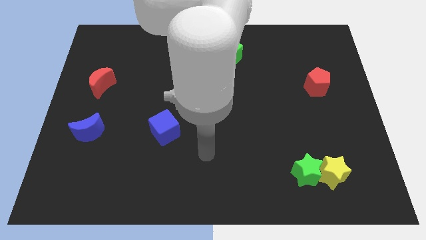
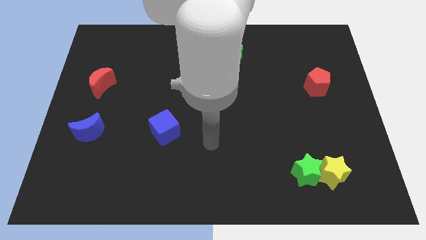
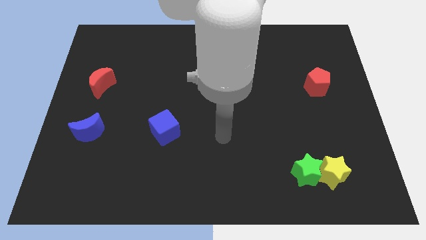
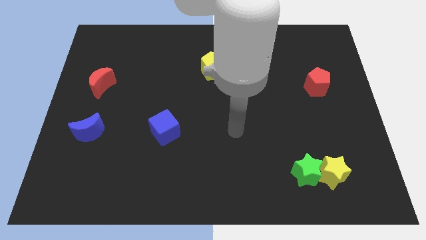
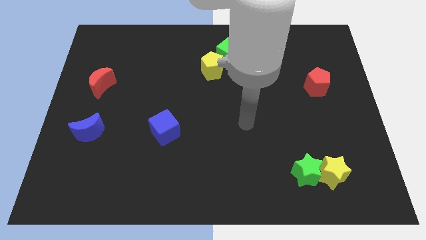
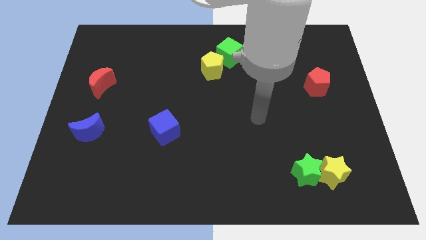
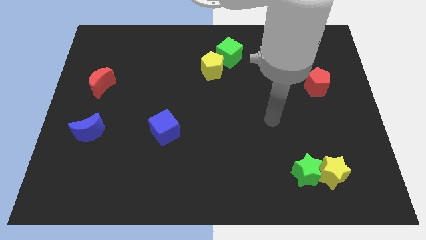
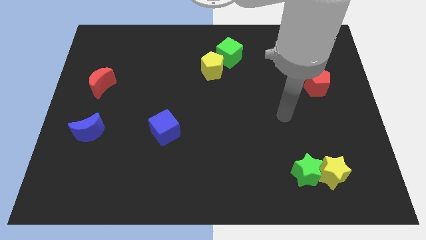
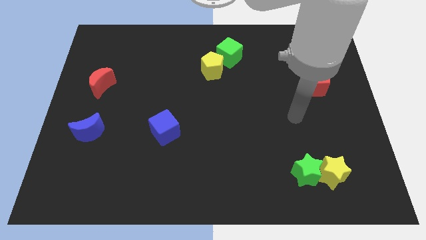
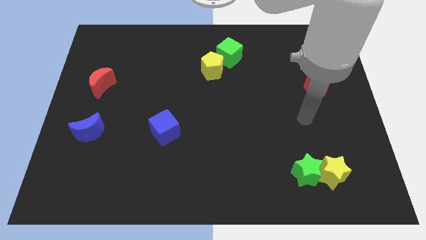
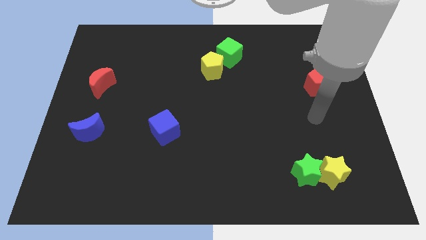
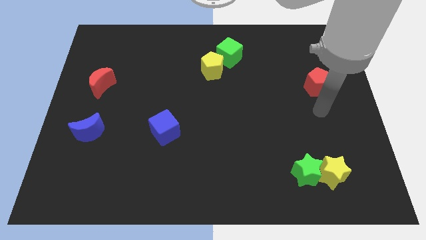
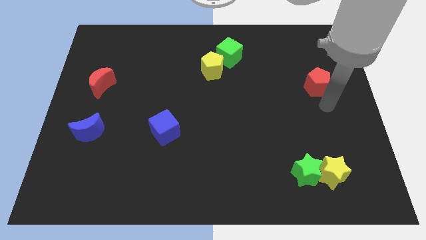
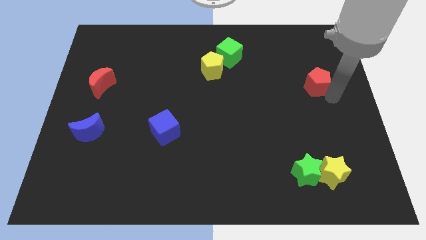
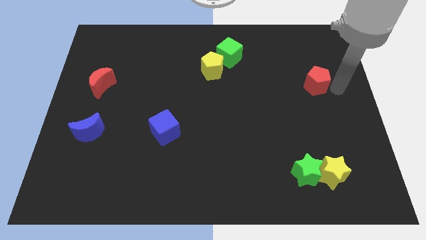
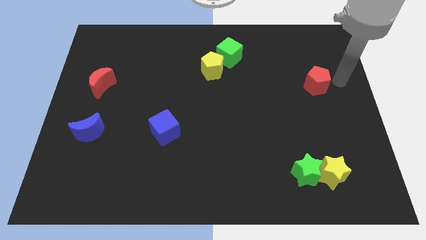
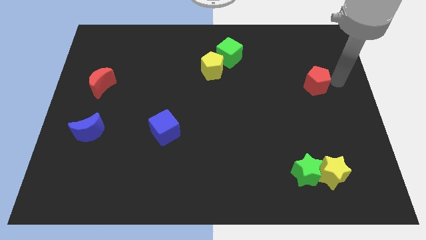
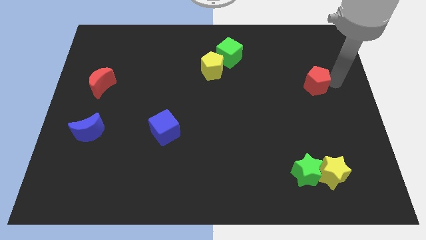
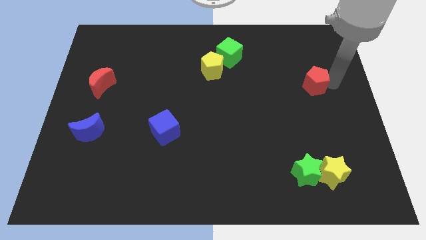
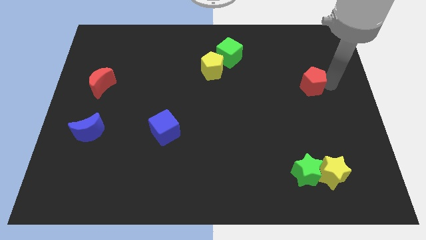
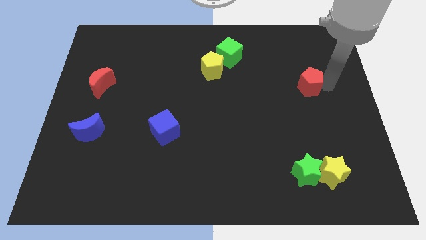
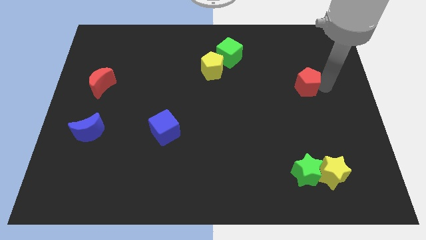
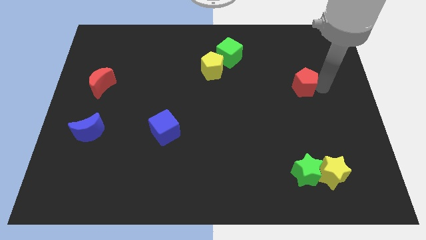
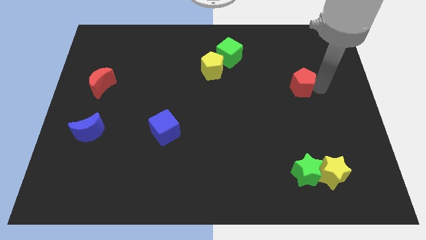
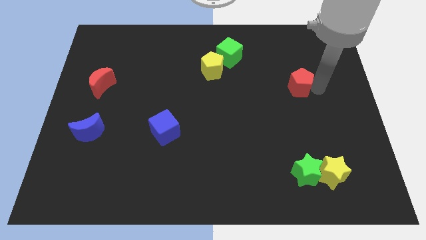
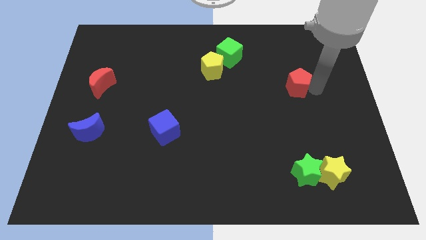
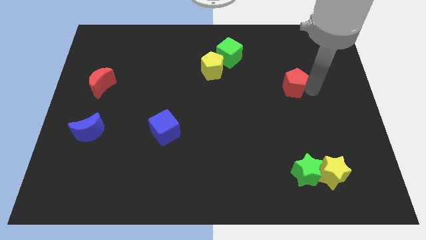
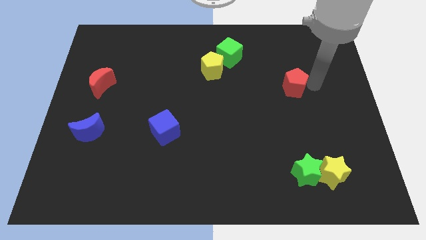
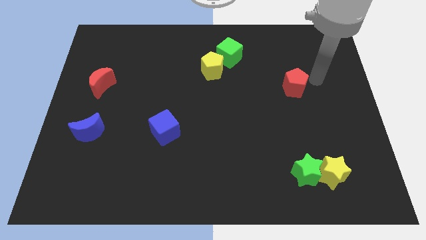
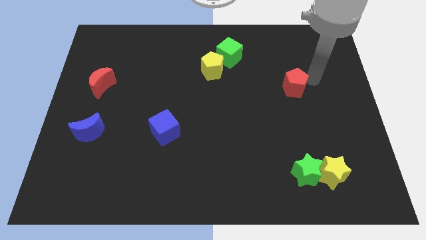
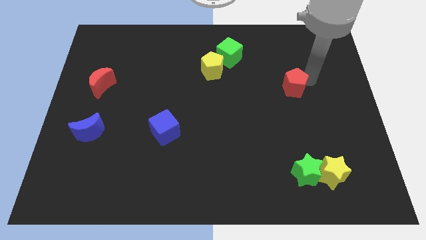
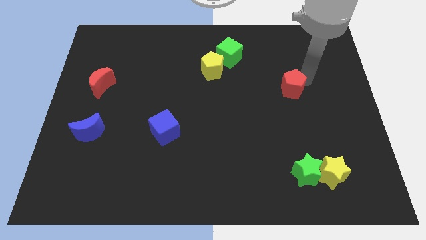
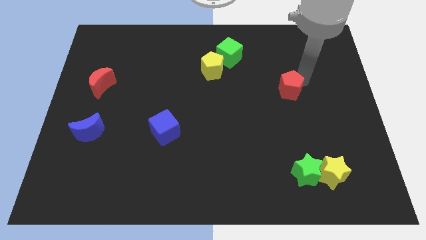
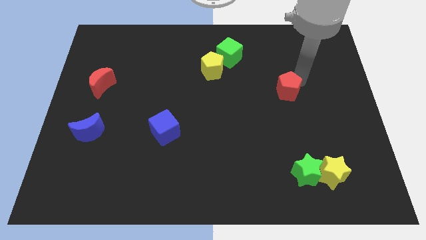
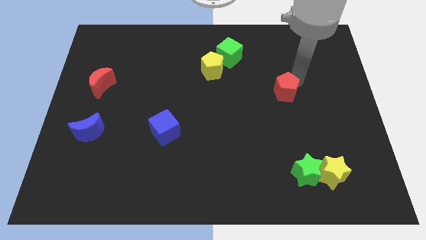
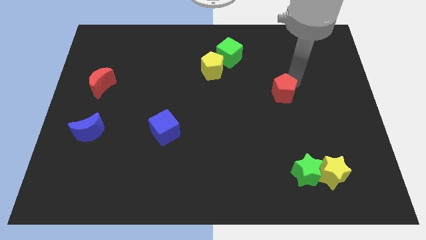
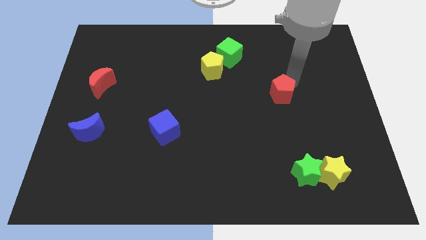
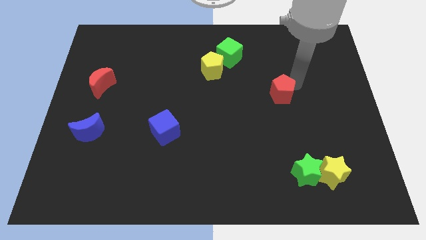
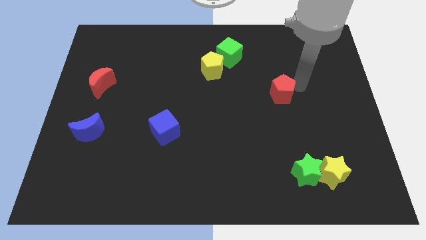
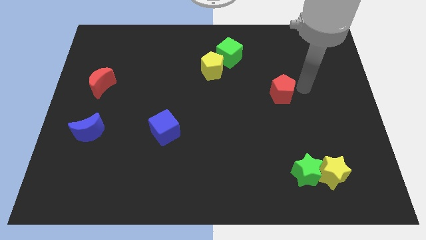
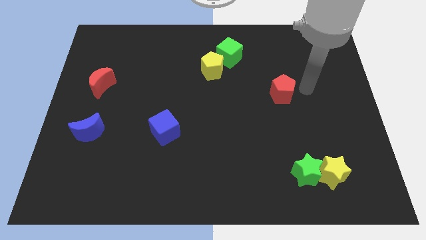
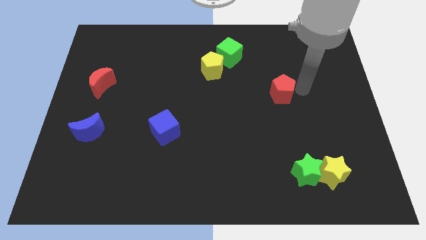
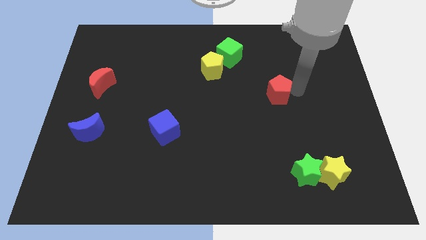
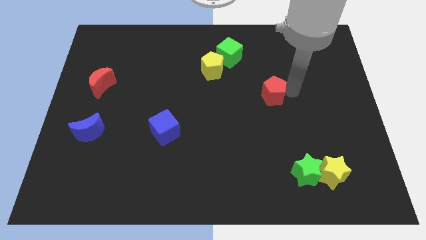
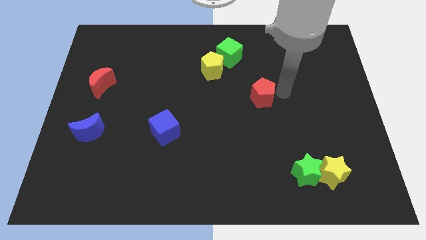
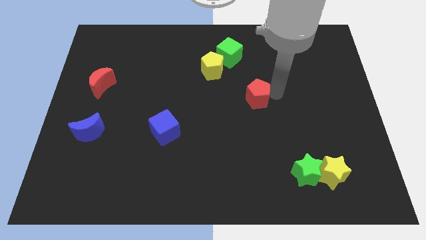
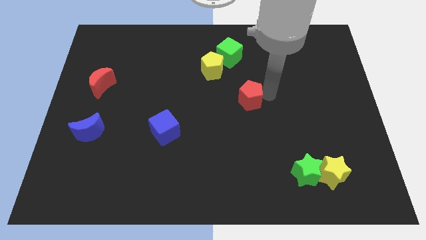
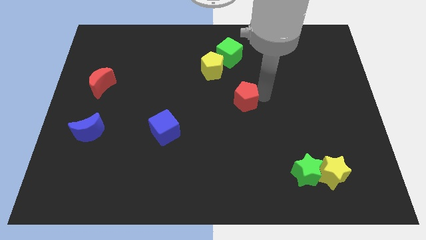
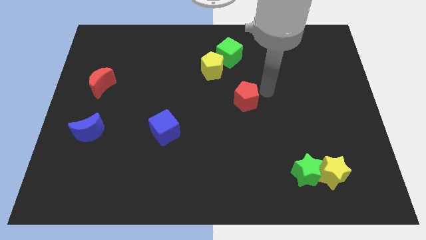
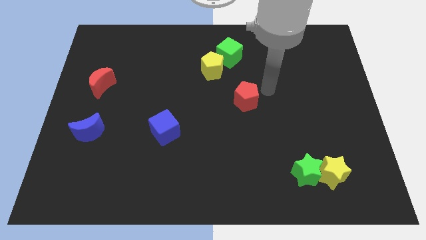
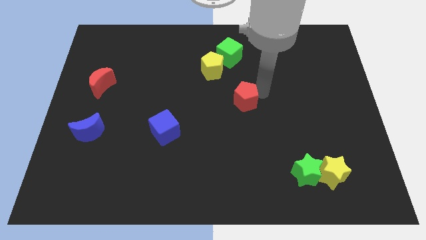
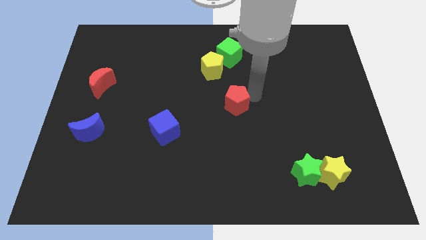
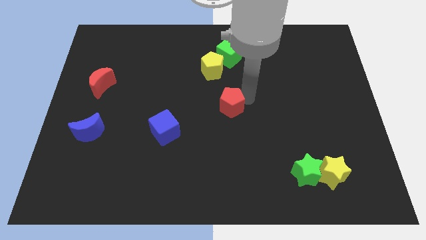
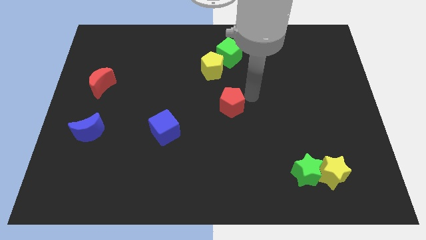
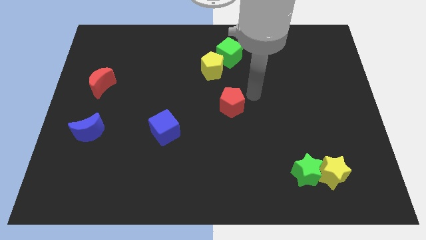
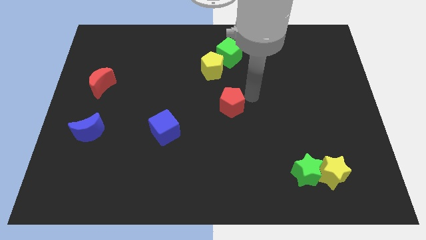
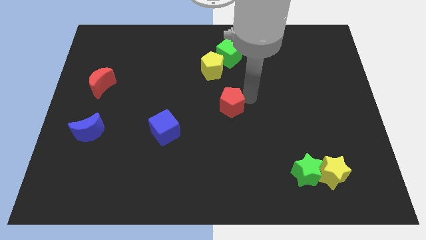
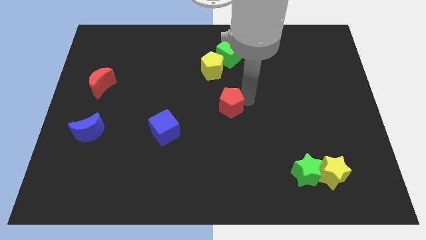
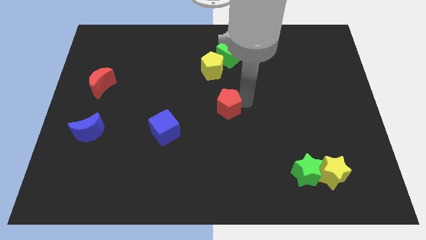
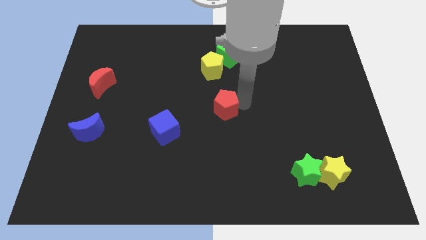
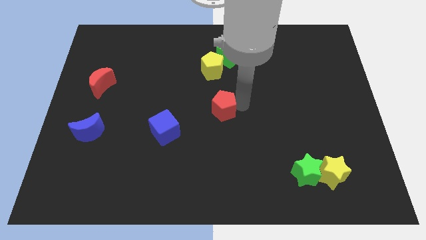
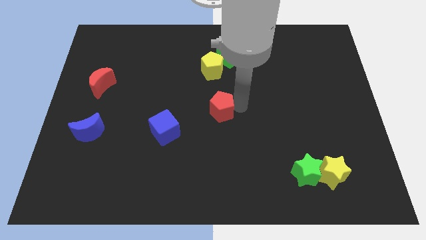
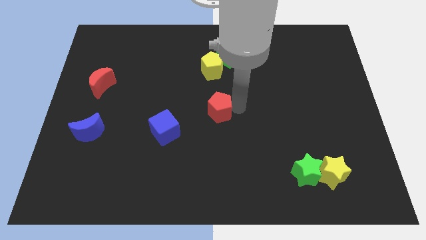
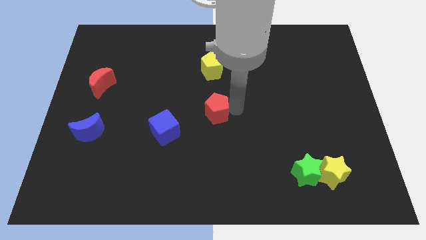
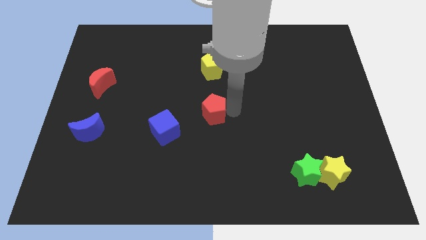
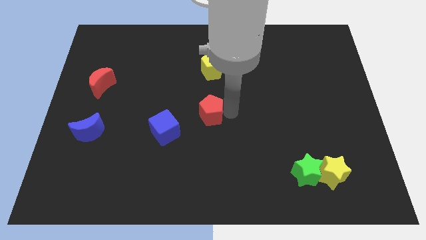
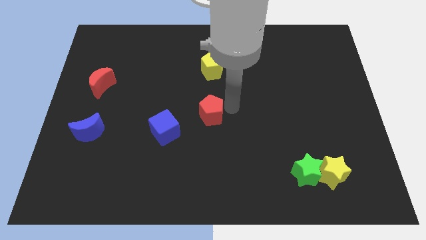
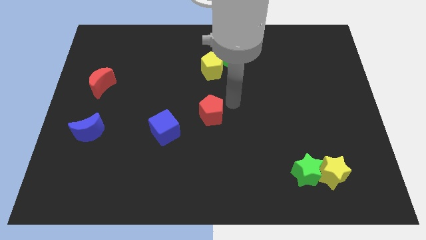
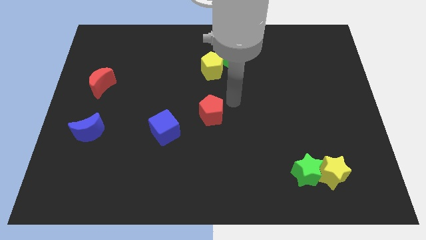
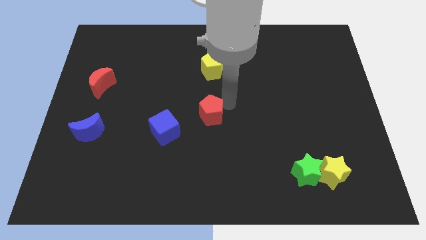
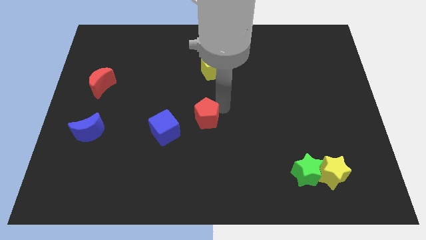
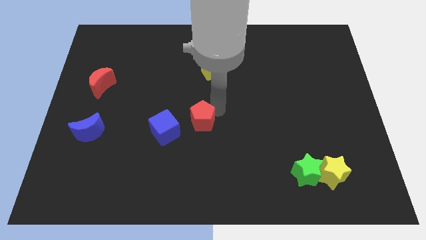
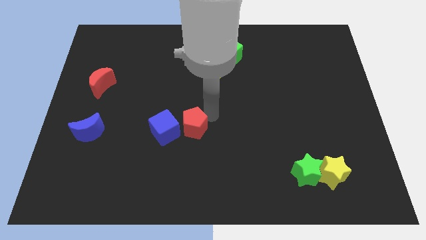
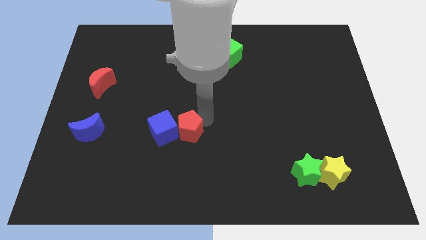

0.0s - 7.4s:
put the red pentagon towards the blue cube
